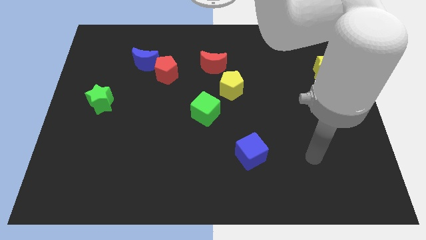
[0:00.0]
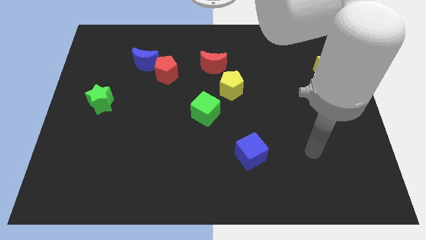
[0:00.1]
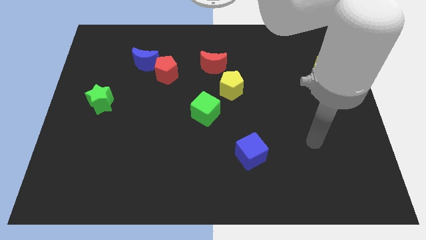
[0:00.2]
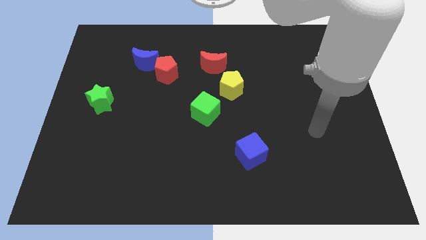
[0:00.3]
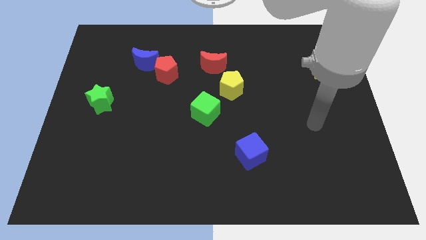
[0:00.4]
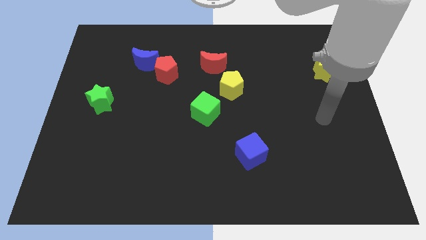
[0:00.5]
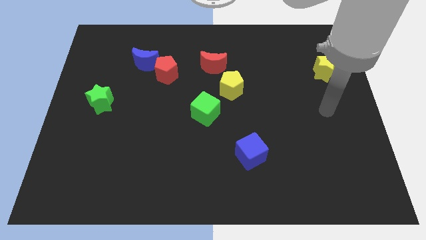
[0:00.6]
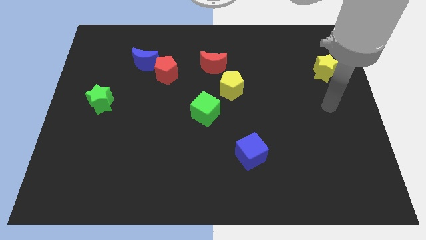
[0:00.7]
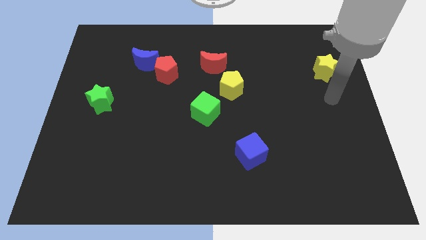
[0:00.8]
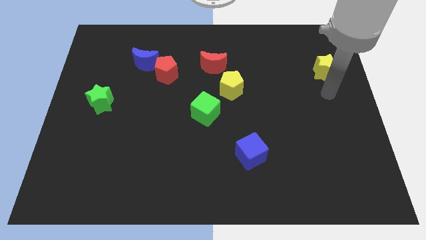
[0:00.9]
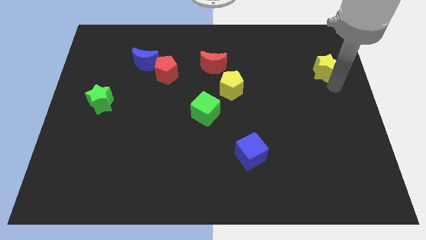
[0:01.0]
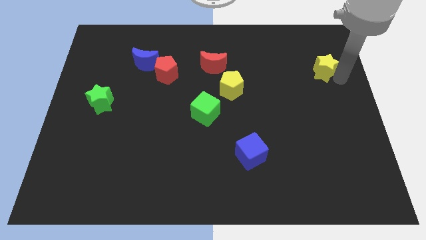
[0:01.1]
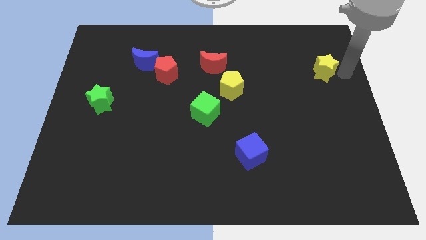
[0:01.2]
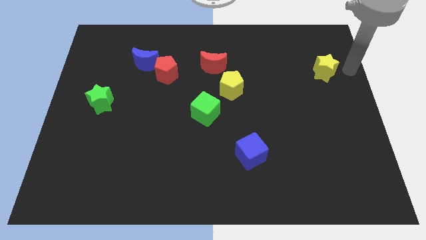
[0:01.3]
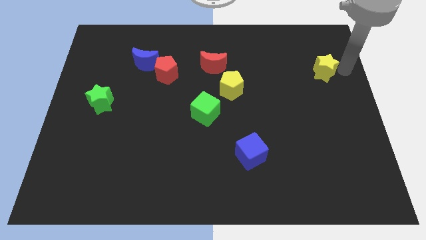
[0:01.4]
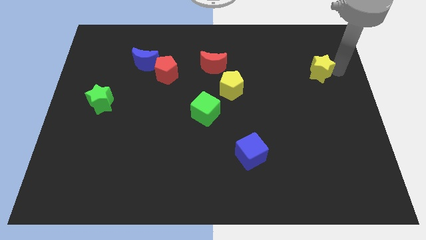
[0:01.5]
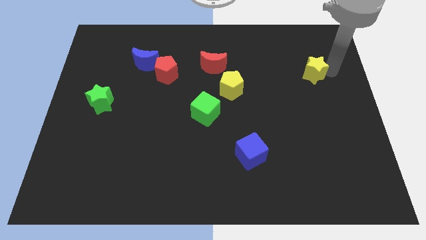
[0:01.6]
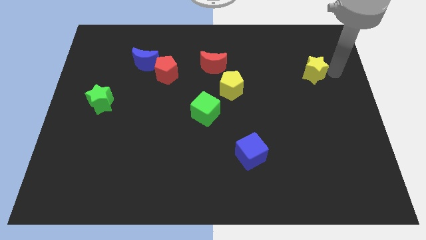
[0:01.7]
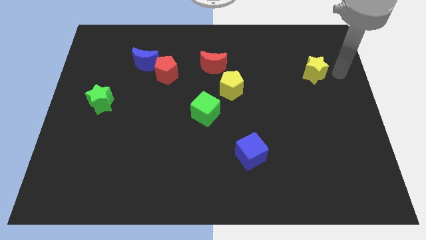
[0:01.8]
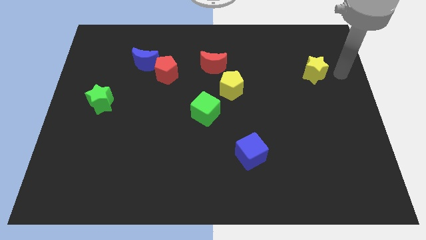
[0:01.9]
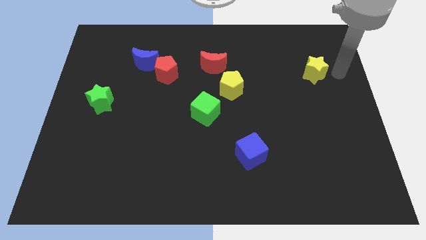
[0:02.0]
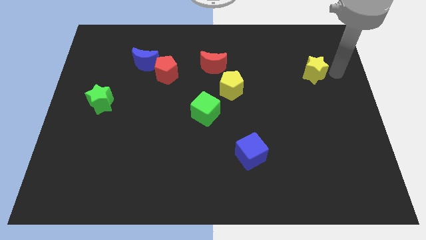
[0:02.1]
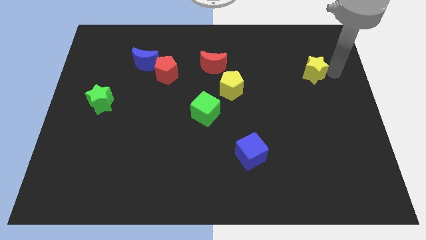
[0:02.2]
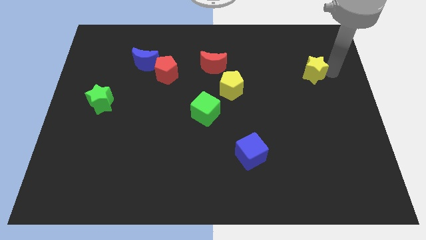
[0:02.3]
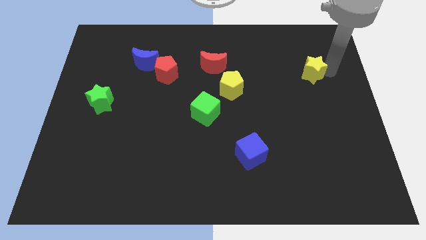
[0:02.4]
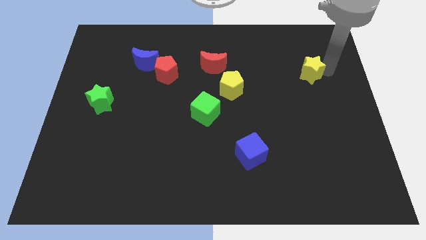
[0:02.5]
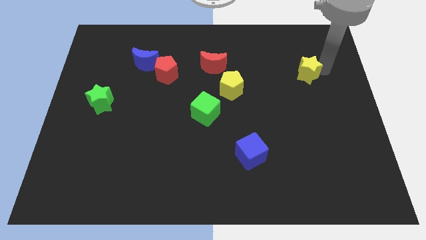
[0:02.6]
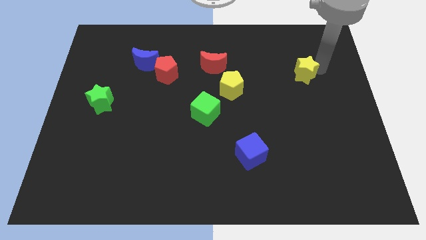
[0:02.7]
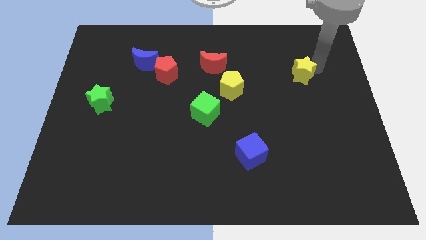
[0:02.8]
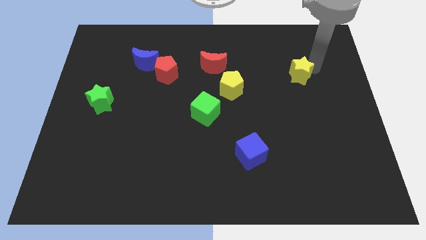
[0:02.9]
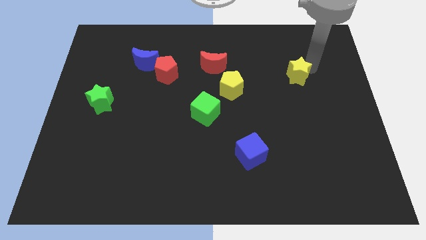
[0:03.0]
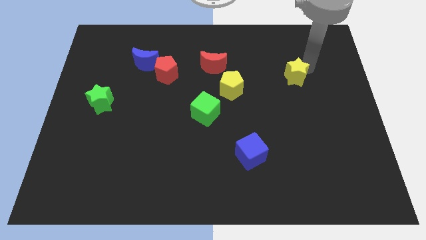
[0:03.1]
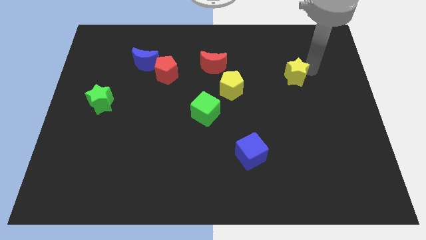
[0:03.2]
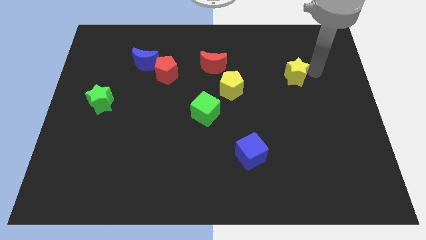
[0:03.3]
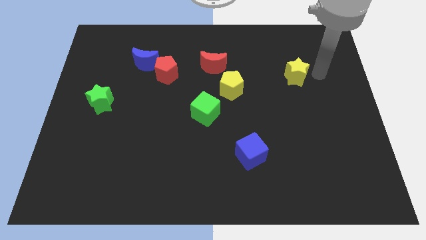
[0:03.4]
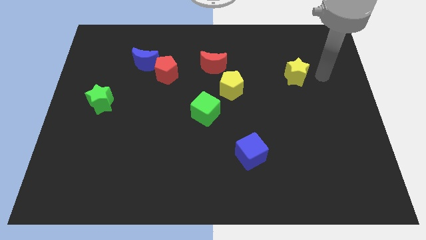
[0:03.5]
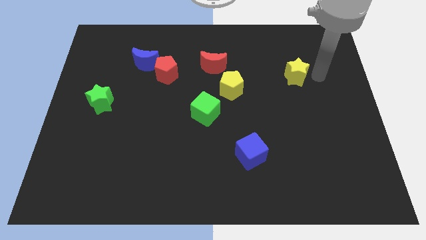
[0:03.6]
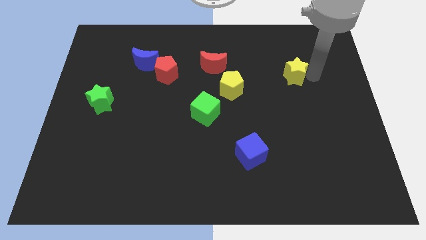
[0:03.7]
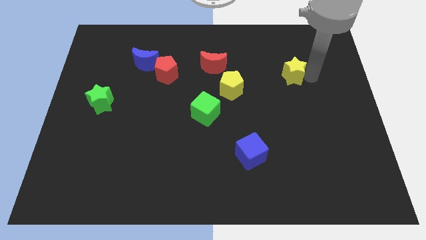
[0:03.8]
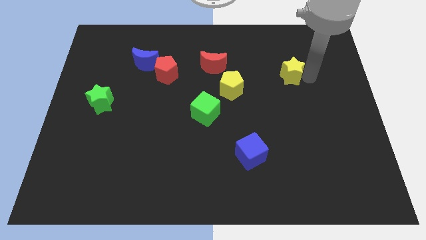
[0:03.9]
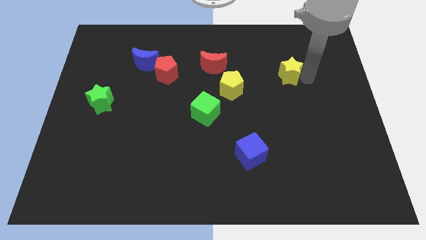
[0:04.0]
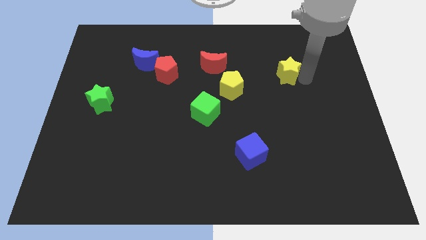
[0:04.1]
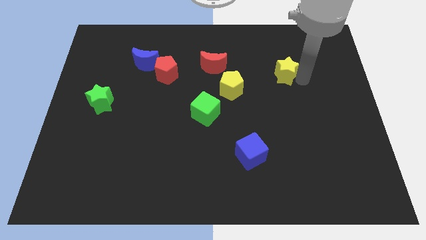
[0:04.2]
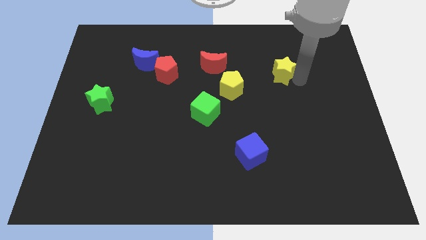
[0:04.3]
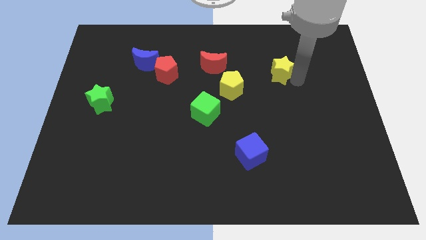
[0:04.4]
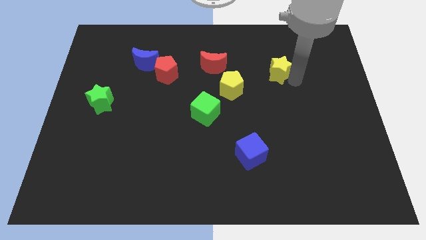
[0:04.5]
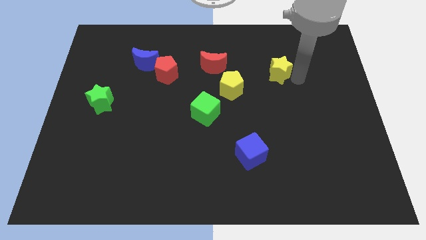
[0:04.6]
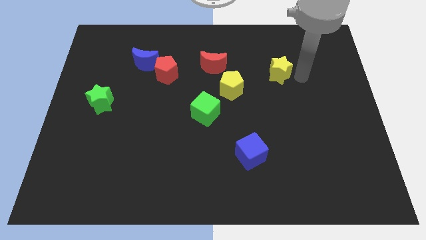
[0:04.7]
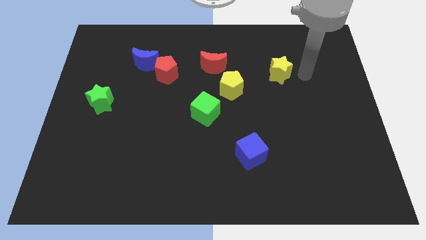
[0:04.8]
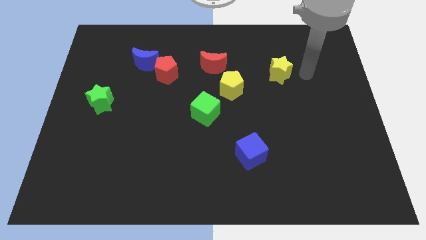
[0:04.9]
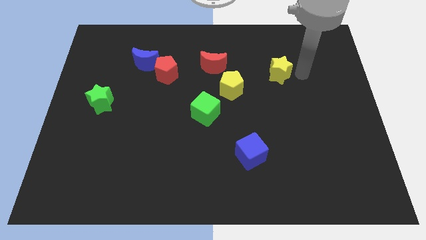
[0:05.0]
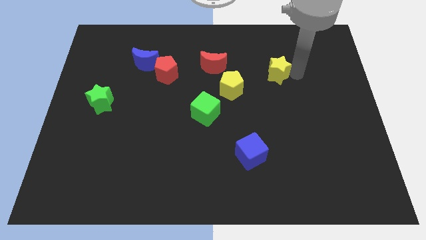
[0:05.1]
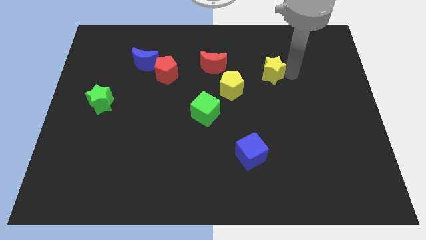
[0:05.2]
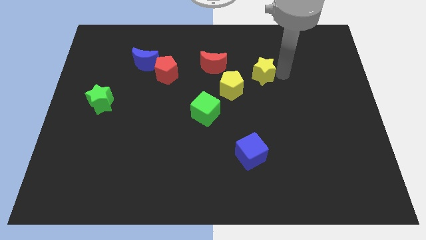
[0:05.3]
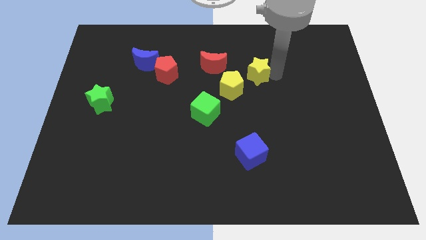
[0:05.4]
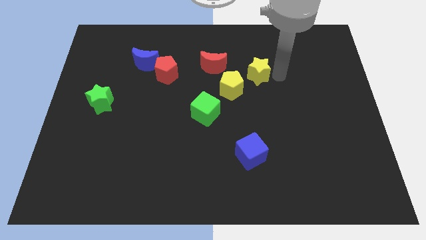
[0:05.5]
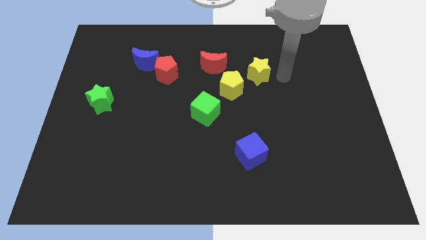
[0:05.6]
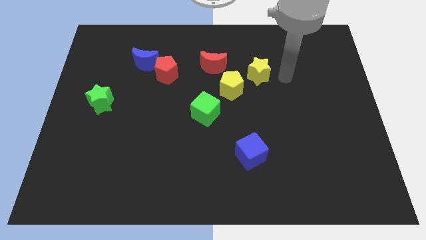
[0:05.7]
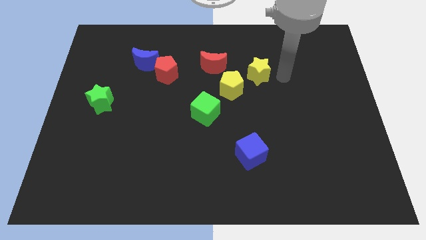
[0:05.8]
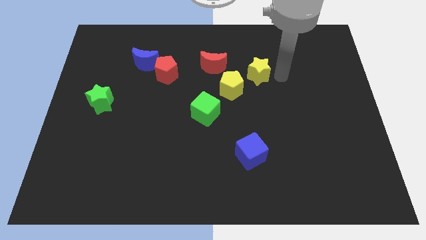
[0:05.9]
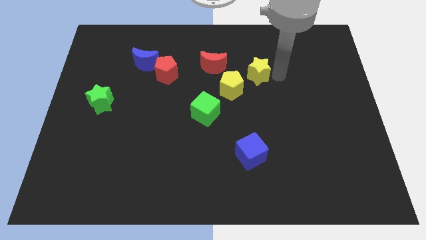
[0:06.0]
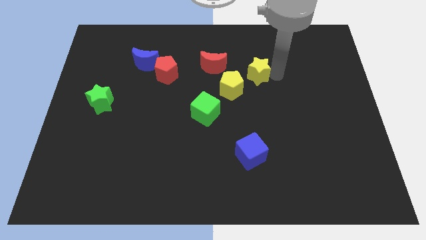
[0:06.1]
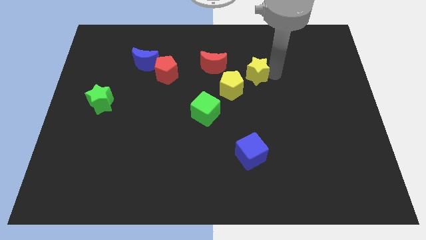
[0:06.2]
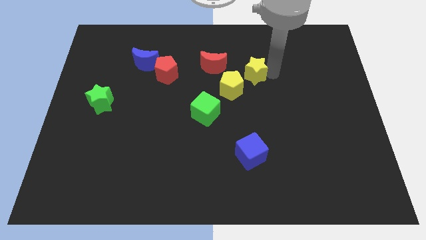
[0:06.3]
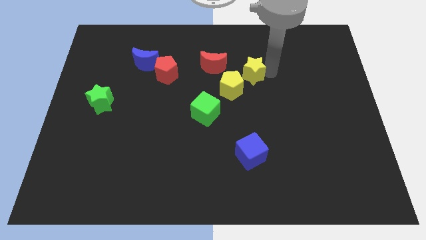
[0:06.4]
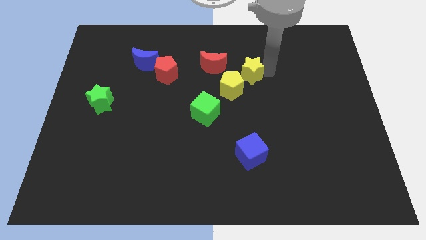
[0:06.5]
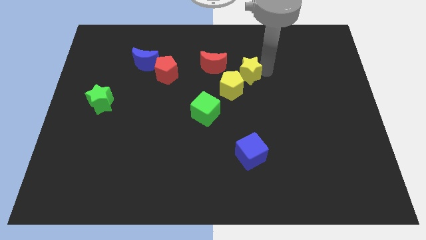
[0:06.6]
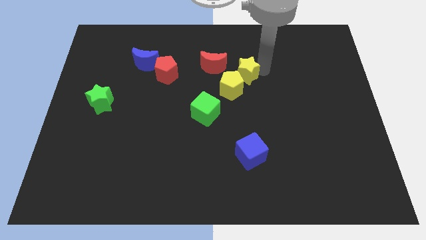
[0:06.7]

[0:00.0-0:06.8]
push the yellow star left

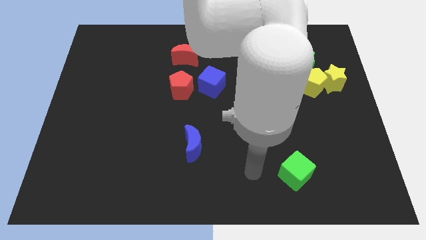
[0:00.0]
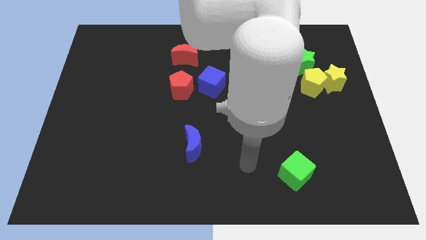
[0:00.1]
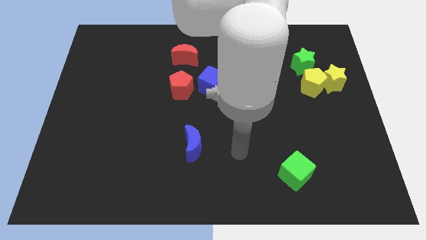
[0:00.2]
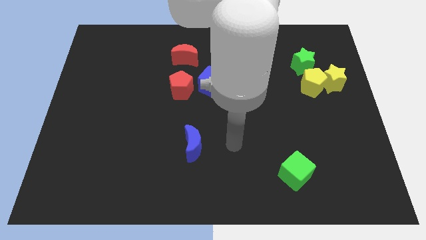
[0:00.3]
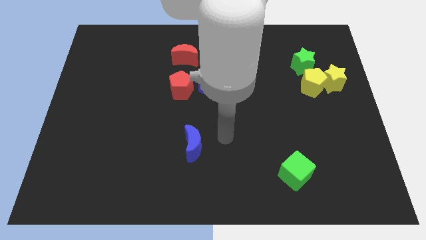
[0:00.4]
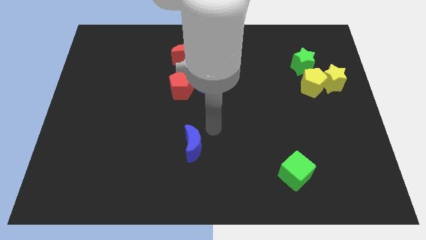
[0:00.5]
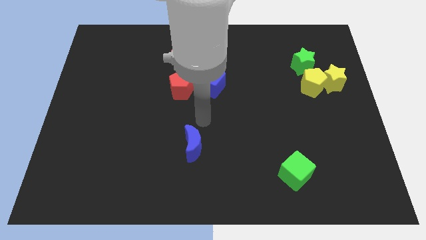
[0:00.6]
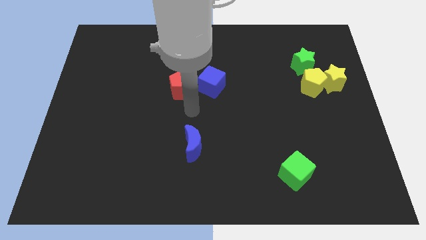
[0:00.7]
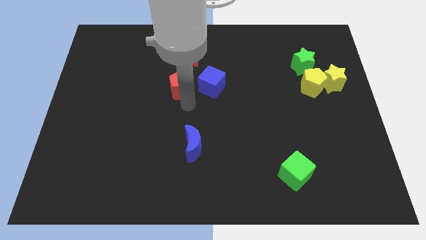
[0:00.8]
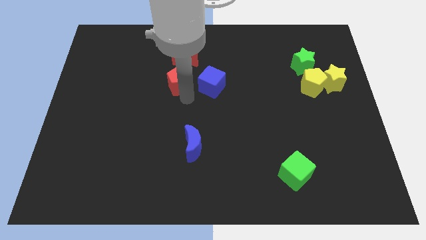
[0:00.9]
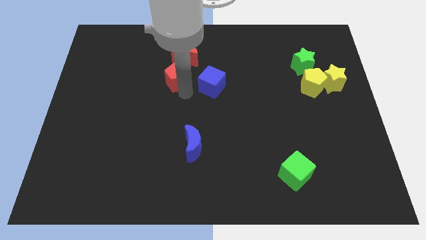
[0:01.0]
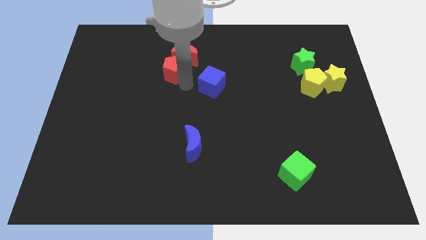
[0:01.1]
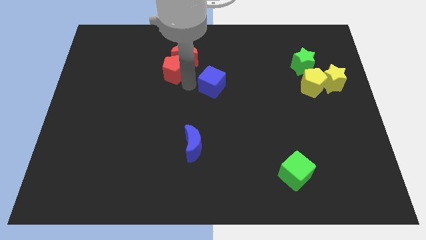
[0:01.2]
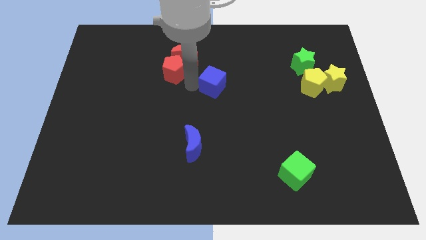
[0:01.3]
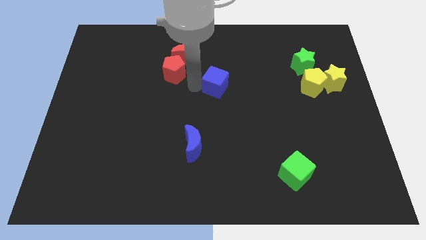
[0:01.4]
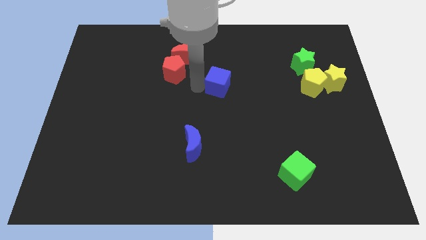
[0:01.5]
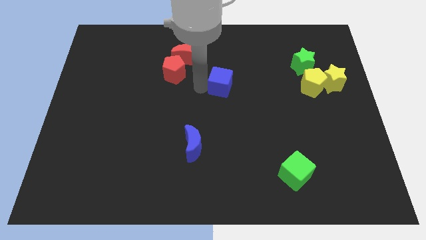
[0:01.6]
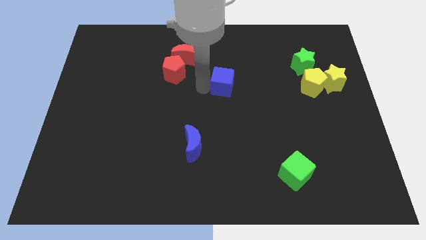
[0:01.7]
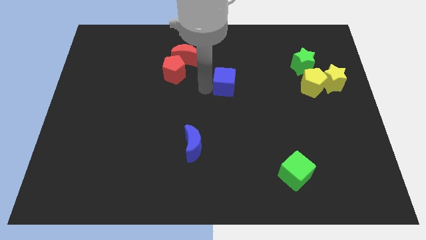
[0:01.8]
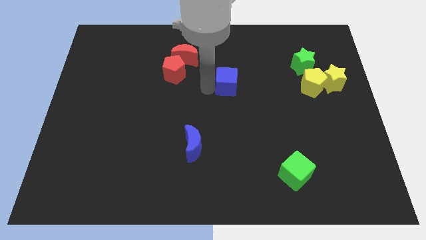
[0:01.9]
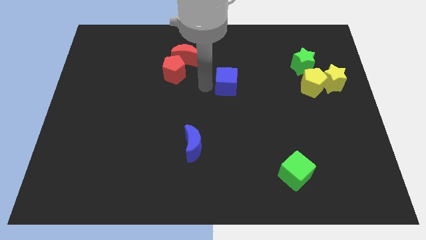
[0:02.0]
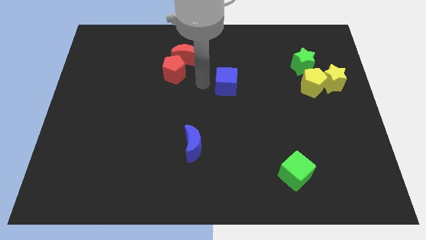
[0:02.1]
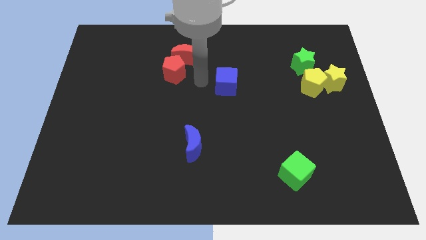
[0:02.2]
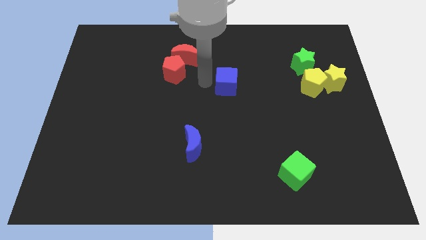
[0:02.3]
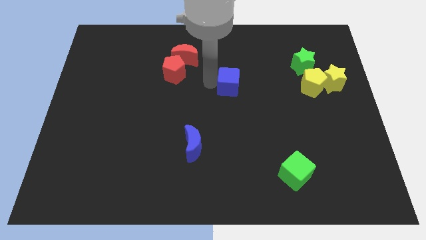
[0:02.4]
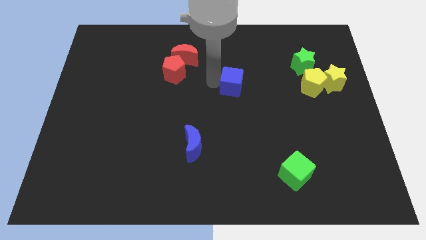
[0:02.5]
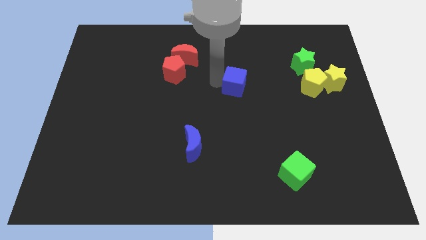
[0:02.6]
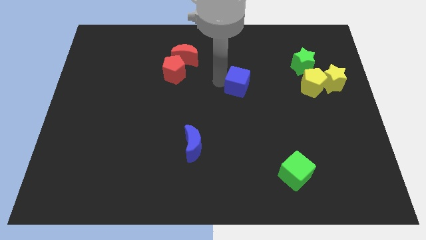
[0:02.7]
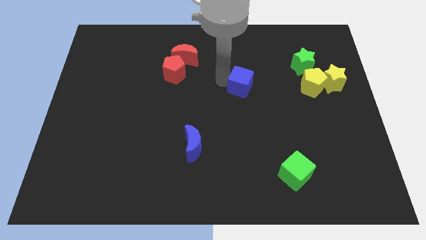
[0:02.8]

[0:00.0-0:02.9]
slightly push the blue cube right
